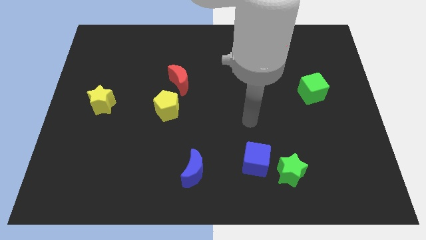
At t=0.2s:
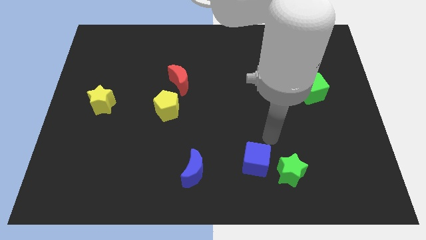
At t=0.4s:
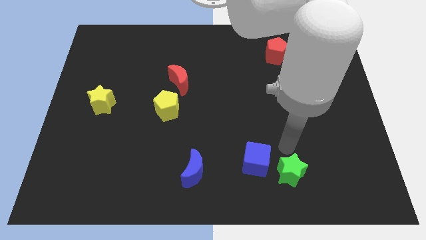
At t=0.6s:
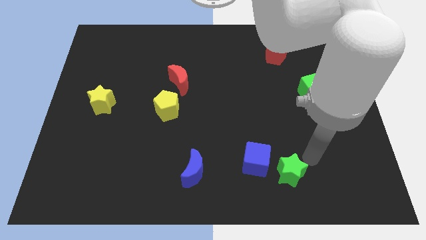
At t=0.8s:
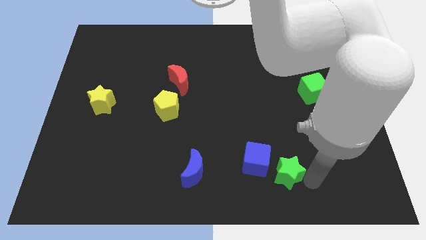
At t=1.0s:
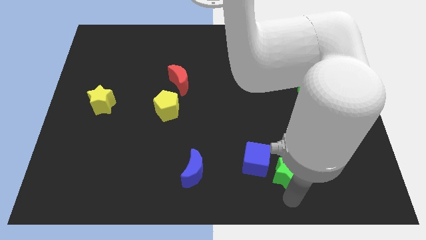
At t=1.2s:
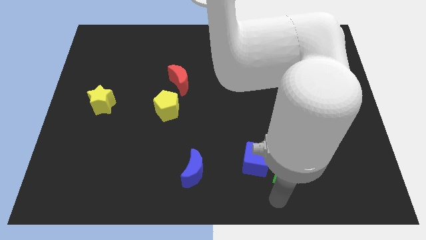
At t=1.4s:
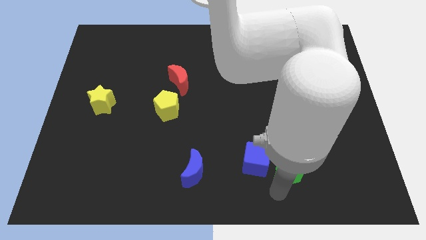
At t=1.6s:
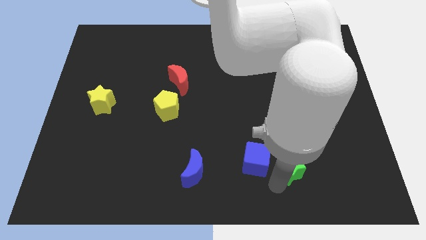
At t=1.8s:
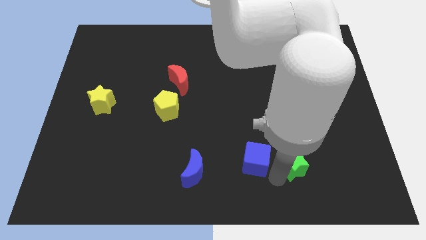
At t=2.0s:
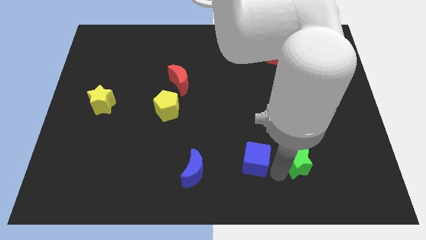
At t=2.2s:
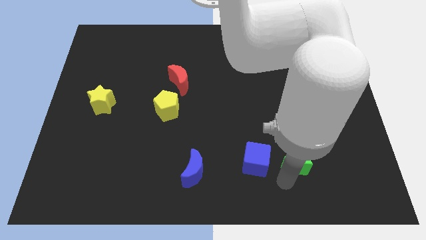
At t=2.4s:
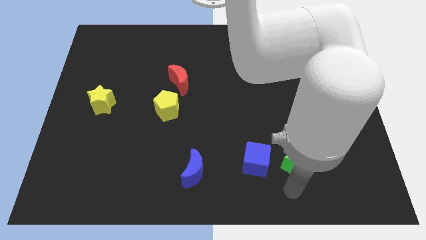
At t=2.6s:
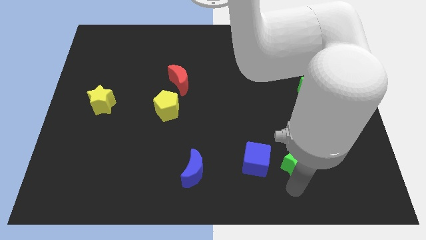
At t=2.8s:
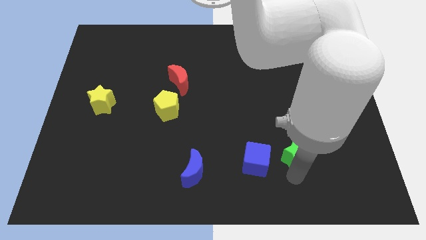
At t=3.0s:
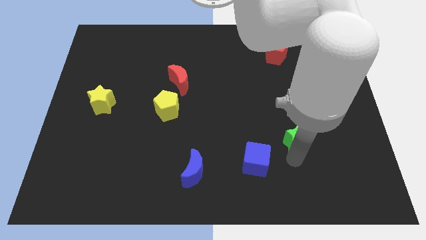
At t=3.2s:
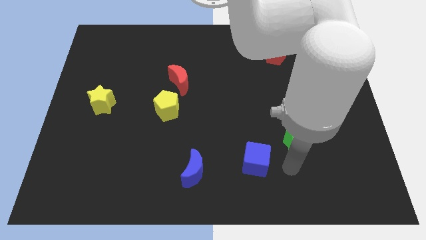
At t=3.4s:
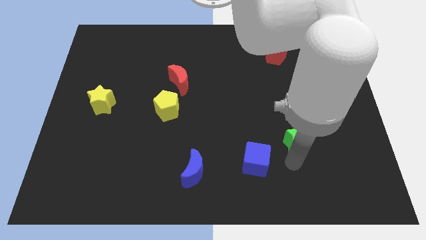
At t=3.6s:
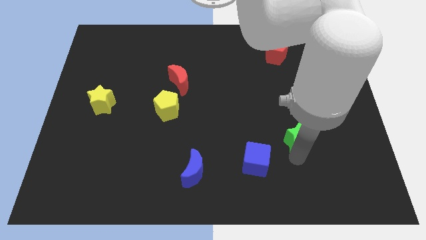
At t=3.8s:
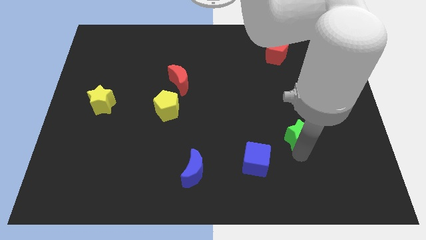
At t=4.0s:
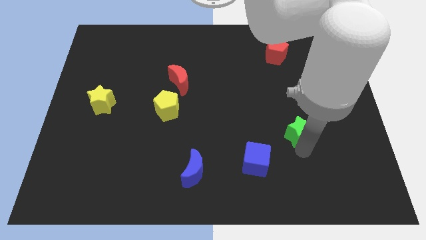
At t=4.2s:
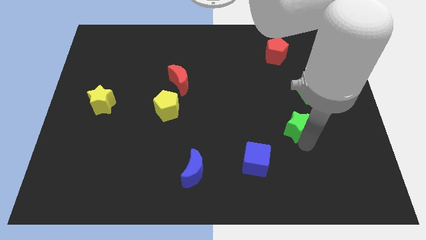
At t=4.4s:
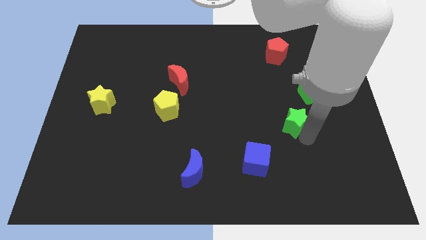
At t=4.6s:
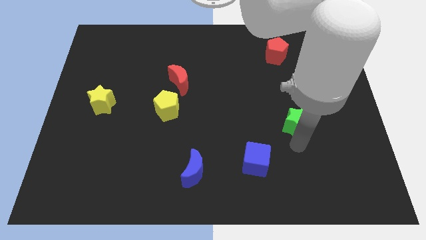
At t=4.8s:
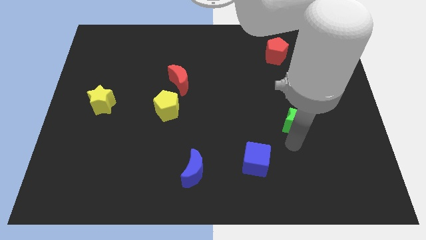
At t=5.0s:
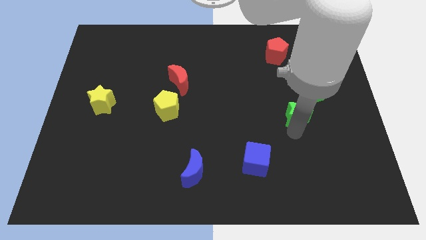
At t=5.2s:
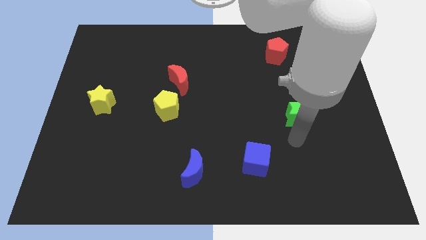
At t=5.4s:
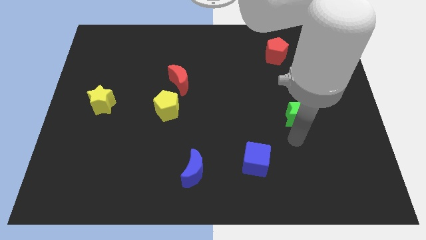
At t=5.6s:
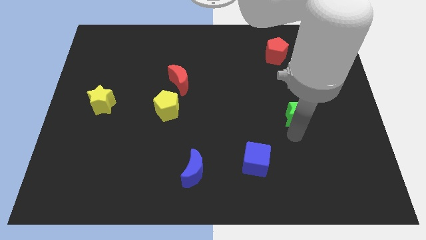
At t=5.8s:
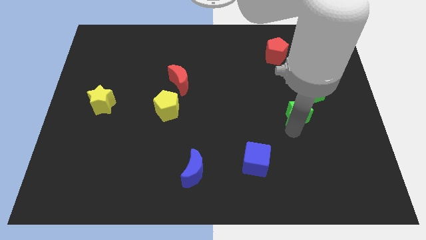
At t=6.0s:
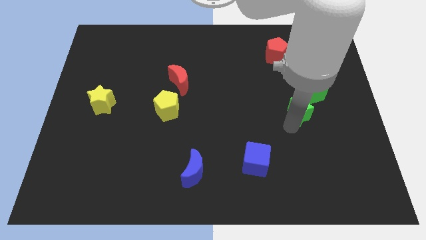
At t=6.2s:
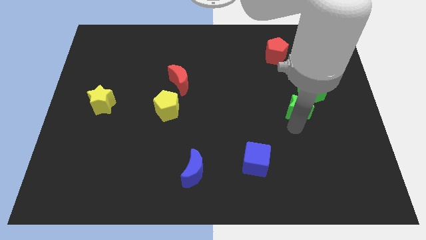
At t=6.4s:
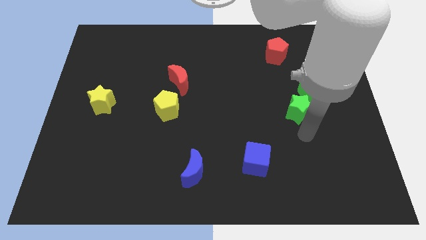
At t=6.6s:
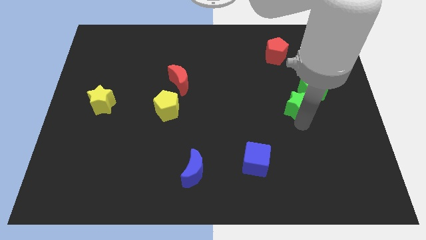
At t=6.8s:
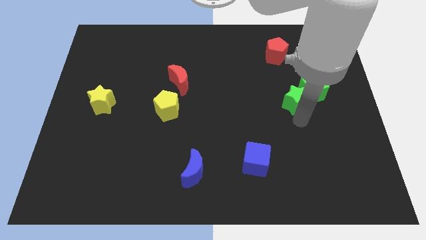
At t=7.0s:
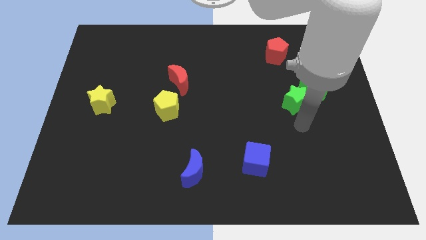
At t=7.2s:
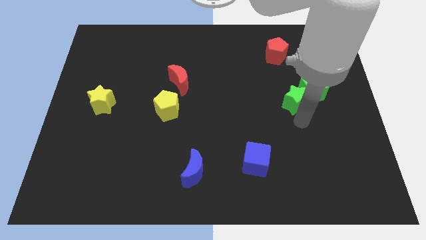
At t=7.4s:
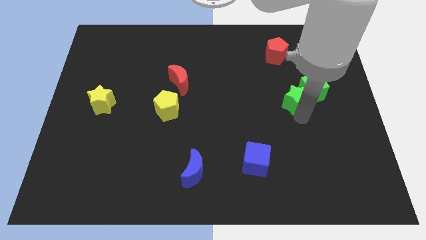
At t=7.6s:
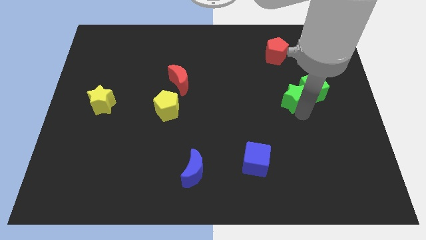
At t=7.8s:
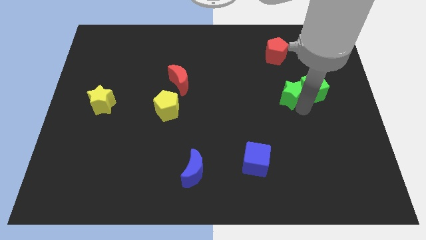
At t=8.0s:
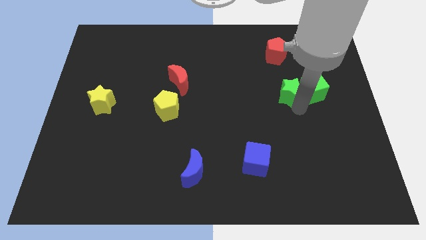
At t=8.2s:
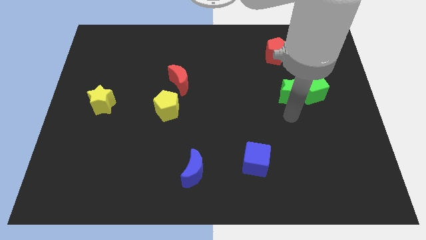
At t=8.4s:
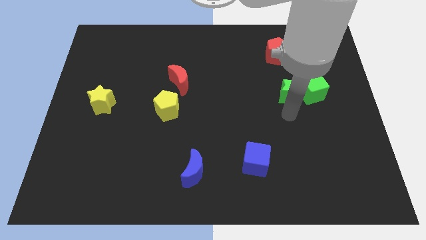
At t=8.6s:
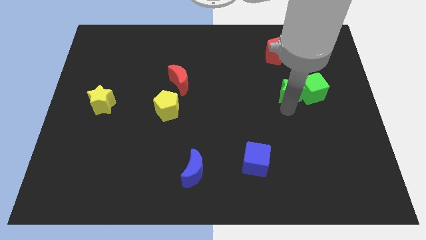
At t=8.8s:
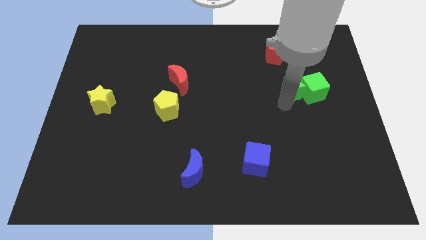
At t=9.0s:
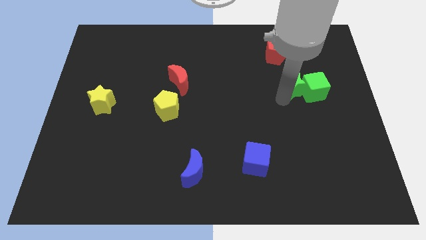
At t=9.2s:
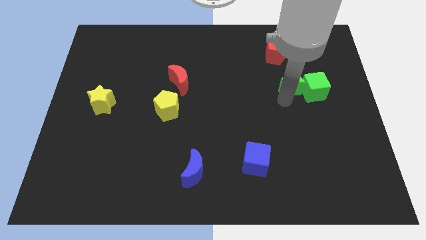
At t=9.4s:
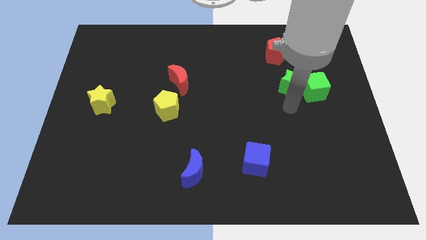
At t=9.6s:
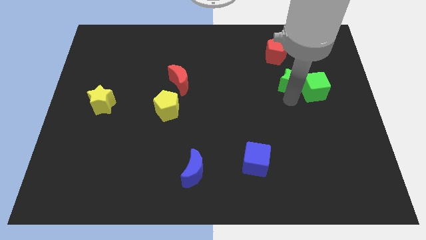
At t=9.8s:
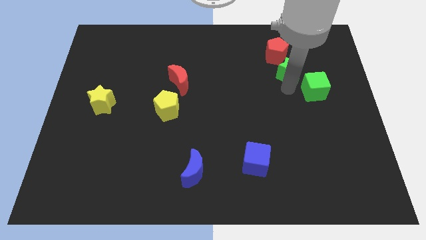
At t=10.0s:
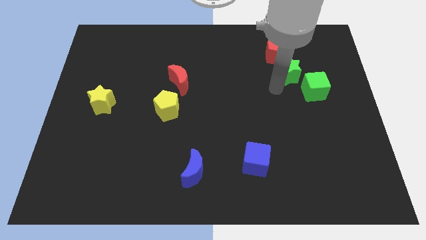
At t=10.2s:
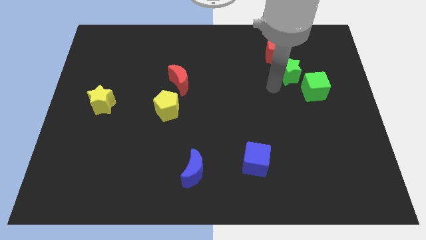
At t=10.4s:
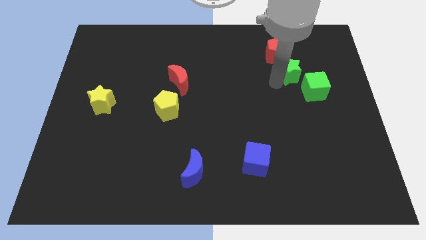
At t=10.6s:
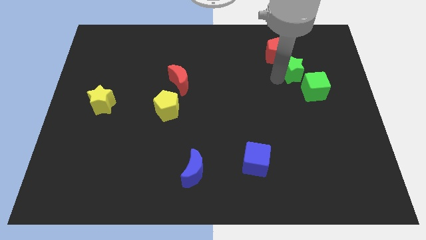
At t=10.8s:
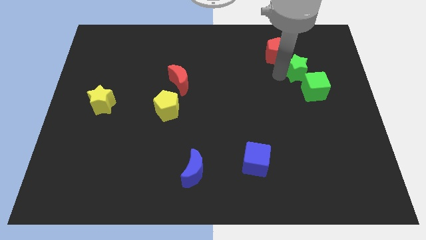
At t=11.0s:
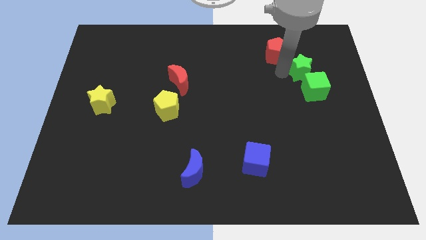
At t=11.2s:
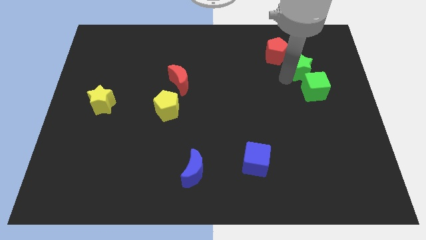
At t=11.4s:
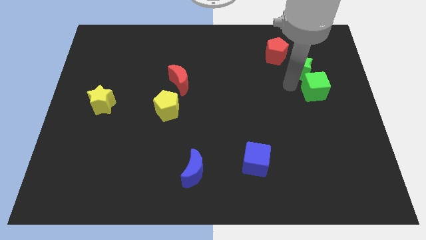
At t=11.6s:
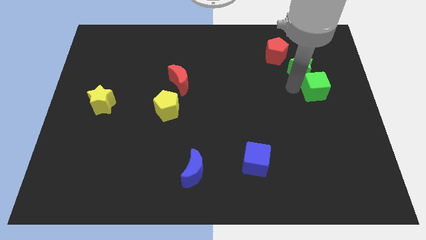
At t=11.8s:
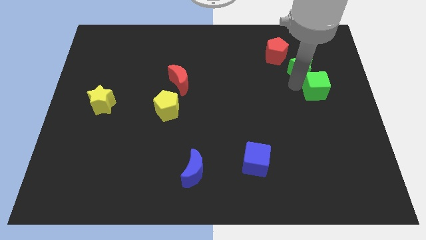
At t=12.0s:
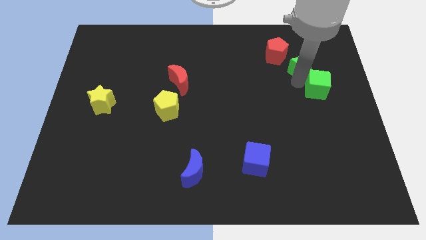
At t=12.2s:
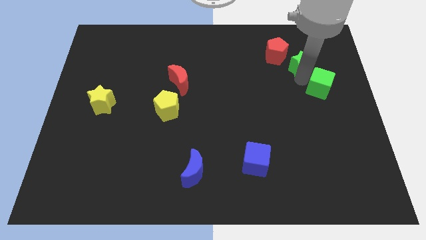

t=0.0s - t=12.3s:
push the green star to the right side of the red pentagon

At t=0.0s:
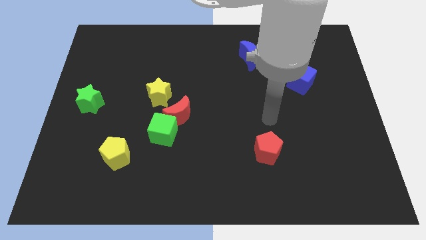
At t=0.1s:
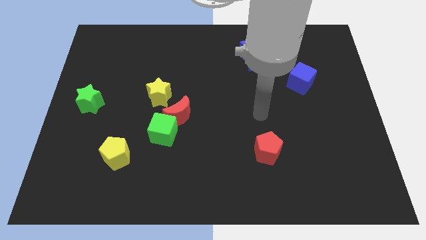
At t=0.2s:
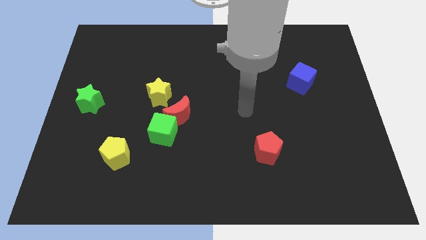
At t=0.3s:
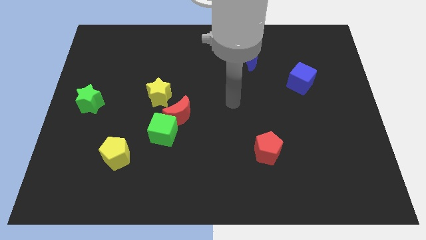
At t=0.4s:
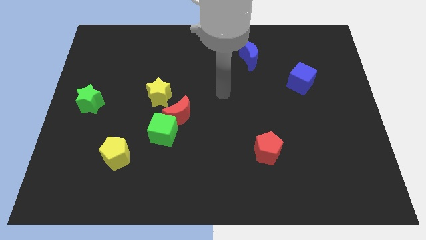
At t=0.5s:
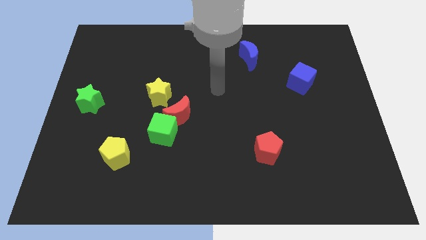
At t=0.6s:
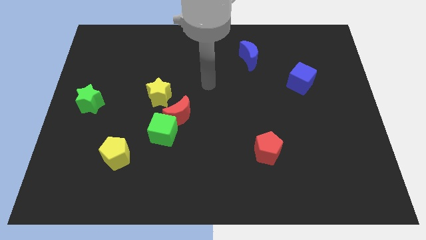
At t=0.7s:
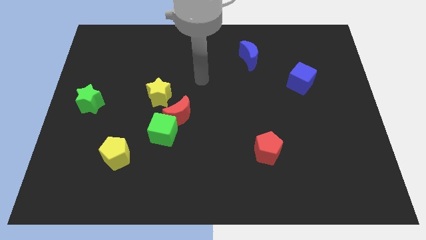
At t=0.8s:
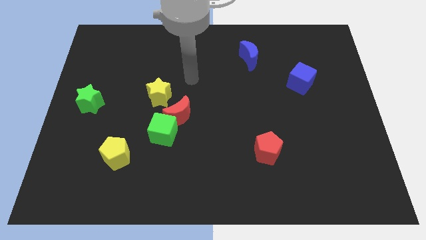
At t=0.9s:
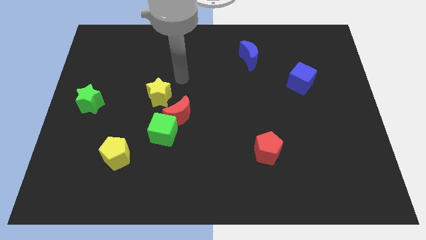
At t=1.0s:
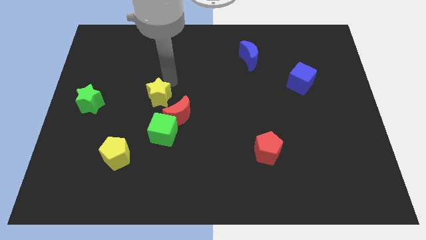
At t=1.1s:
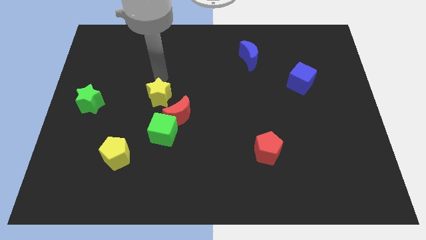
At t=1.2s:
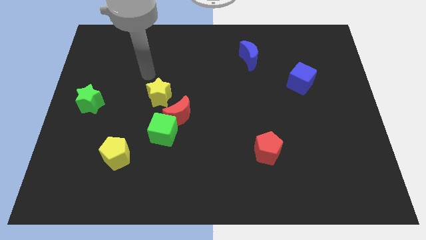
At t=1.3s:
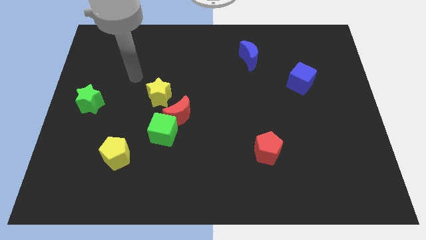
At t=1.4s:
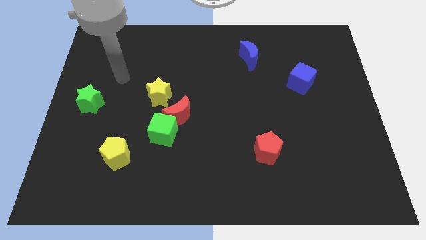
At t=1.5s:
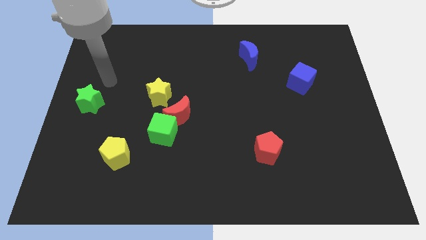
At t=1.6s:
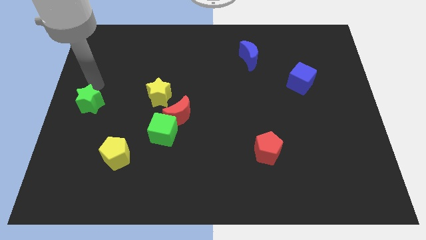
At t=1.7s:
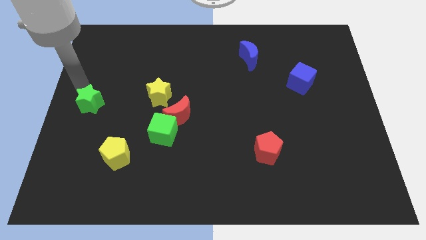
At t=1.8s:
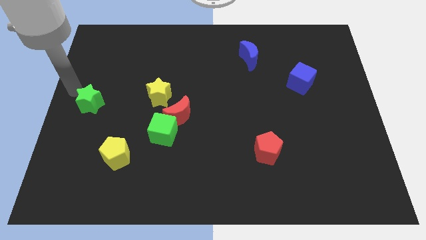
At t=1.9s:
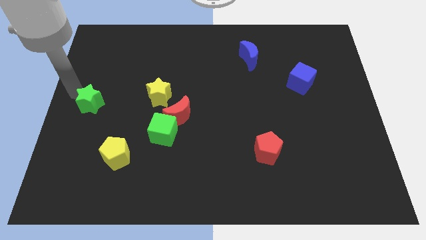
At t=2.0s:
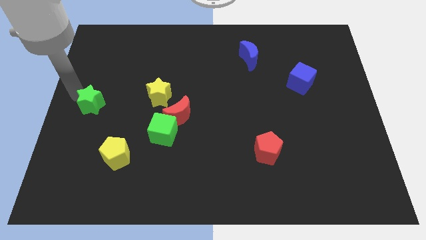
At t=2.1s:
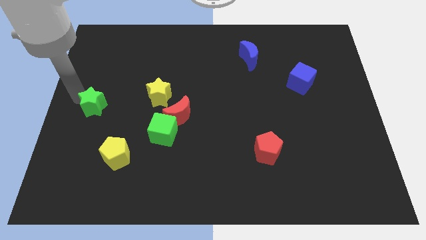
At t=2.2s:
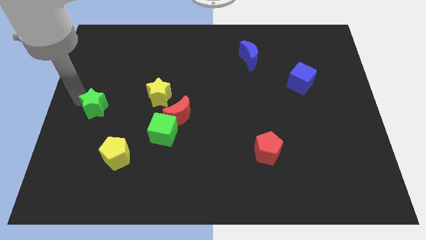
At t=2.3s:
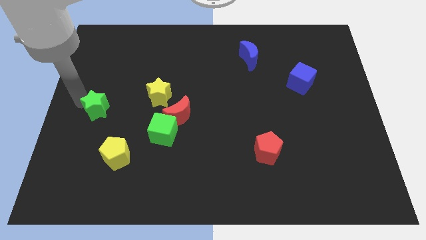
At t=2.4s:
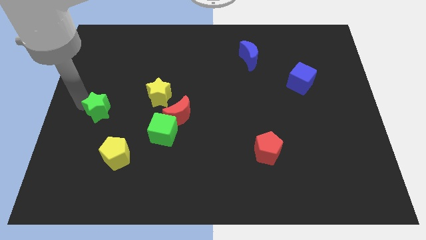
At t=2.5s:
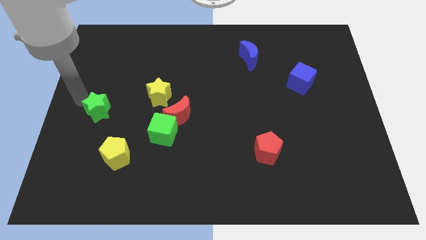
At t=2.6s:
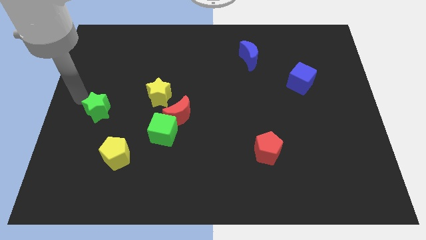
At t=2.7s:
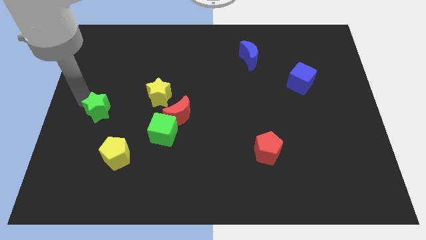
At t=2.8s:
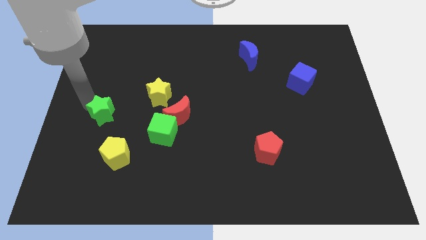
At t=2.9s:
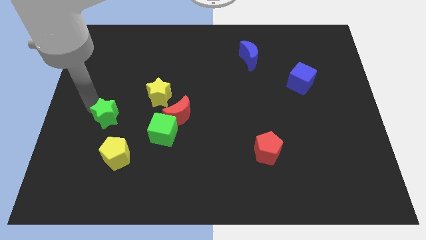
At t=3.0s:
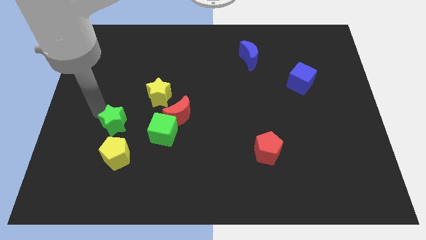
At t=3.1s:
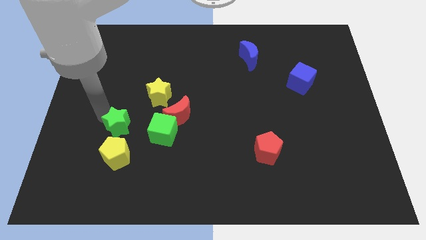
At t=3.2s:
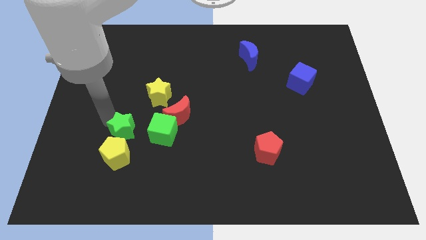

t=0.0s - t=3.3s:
move the green star diagonally up and to the right of the yellow pentagon
